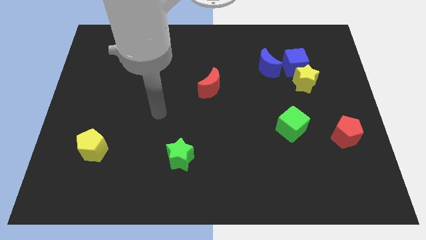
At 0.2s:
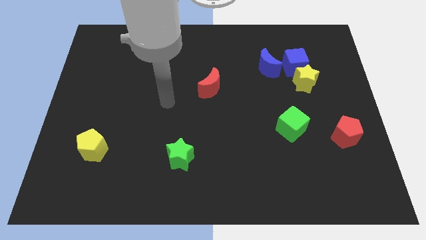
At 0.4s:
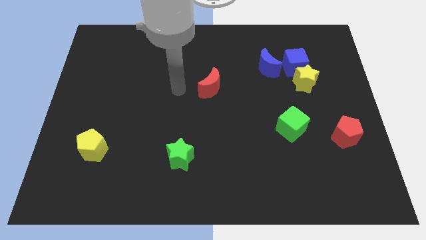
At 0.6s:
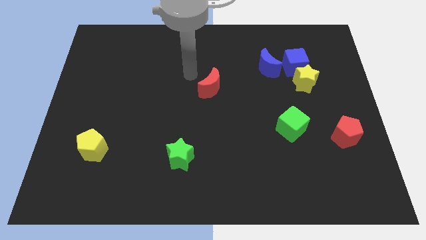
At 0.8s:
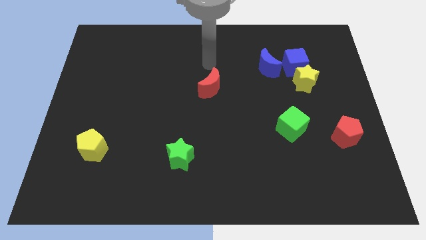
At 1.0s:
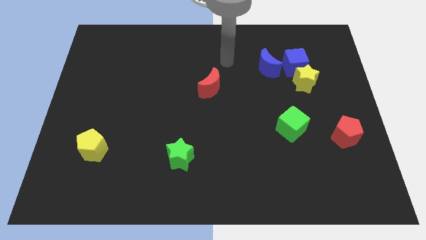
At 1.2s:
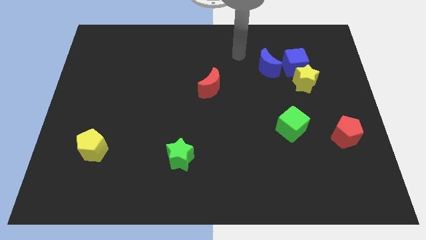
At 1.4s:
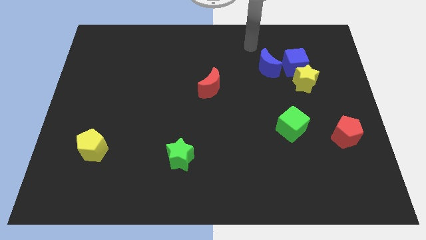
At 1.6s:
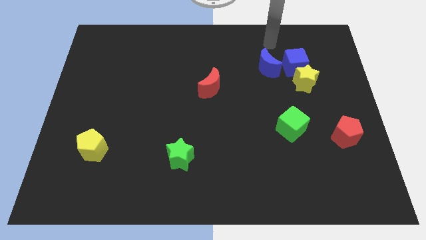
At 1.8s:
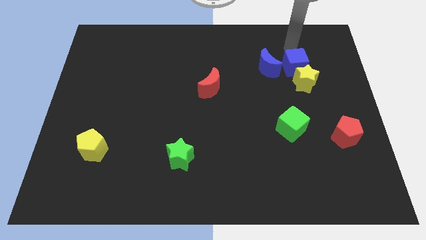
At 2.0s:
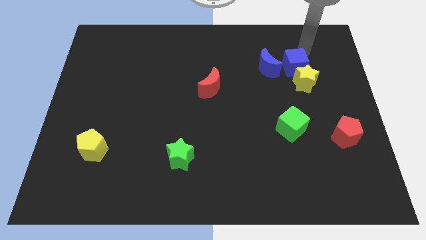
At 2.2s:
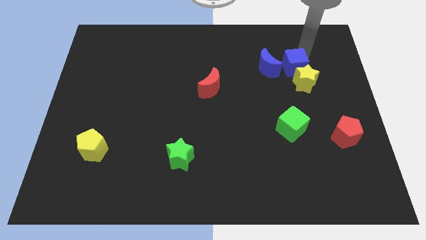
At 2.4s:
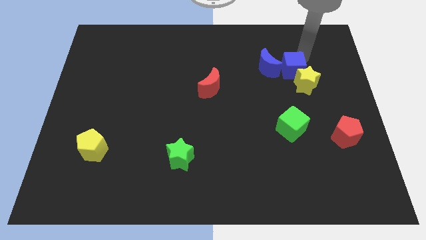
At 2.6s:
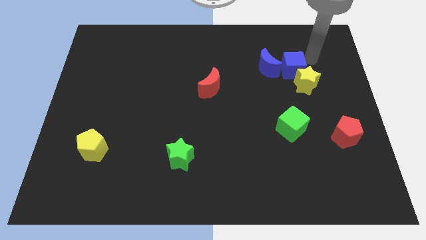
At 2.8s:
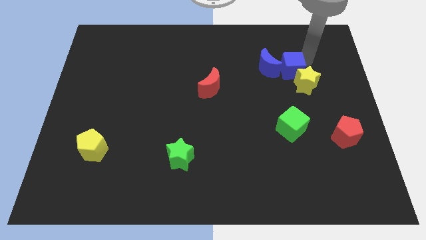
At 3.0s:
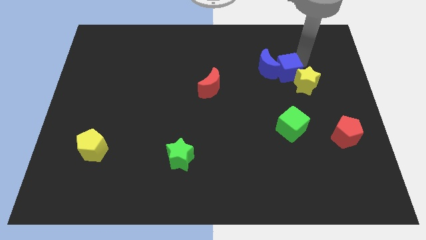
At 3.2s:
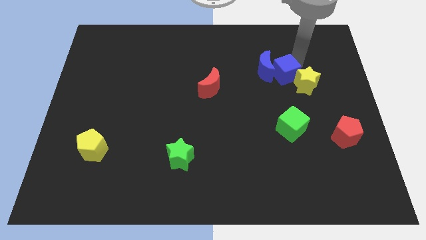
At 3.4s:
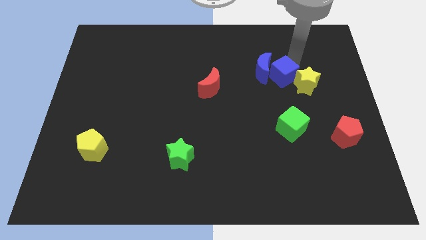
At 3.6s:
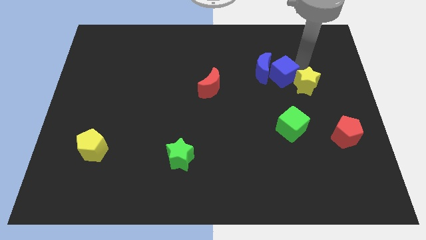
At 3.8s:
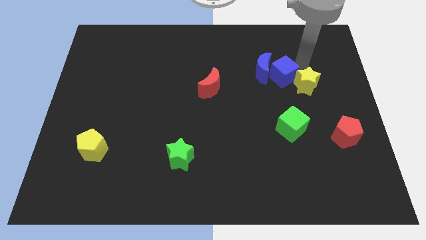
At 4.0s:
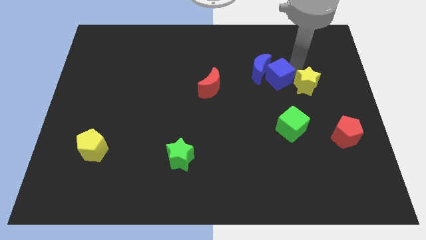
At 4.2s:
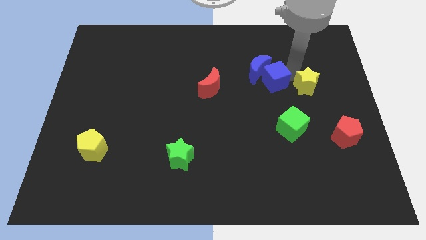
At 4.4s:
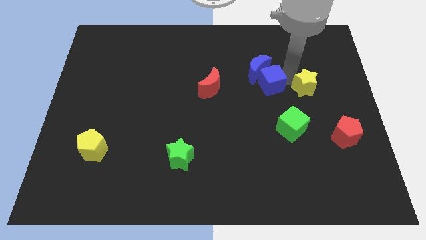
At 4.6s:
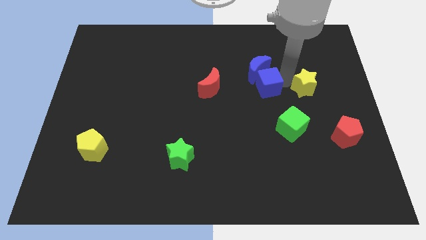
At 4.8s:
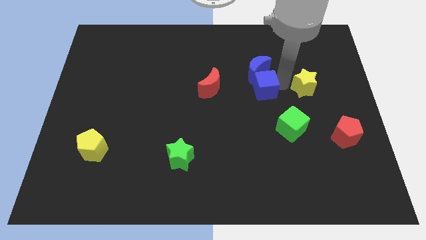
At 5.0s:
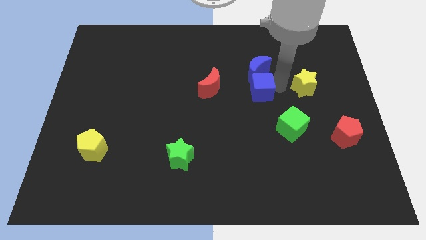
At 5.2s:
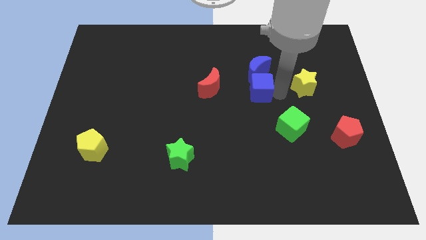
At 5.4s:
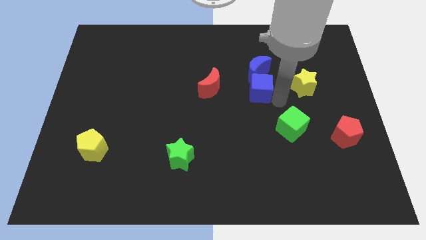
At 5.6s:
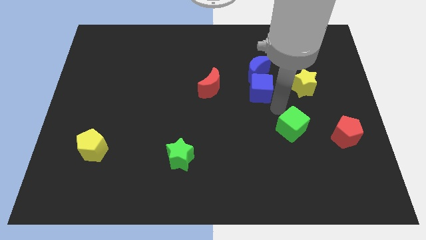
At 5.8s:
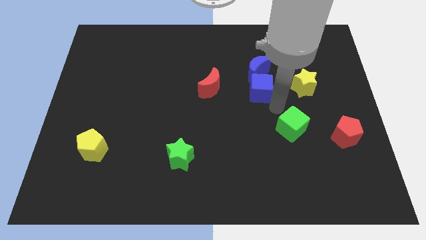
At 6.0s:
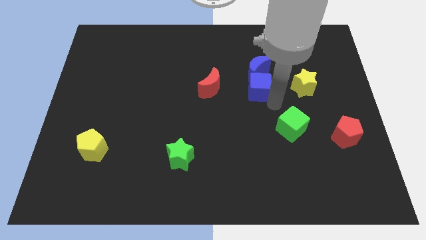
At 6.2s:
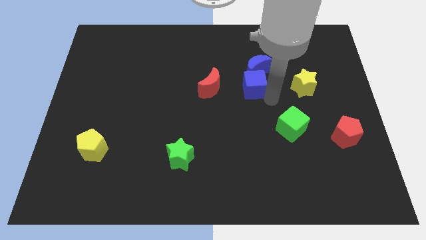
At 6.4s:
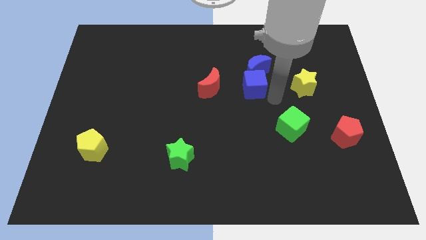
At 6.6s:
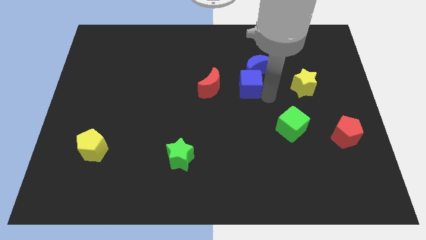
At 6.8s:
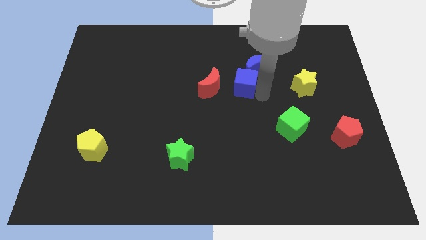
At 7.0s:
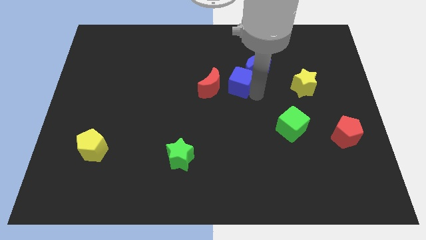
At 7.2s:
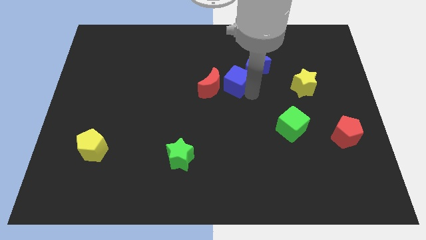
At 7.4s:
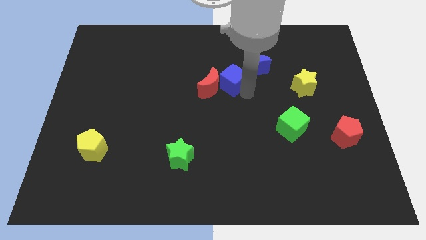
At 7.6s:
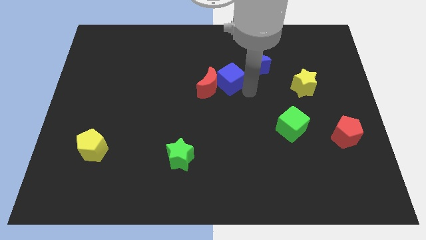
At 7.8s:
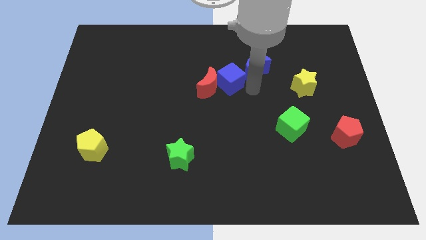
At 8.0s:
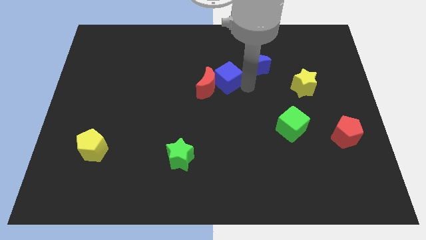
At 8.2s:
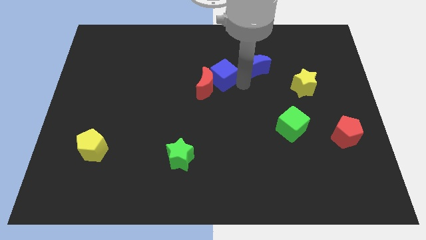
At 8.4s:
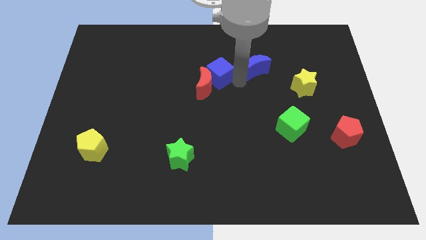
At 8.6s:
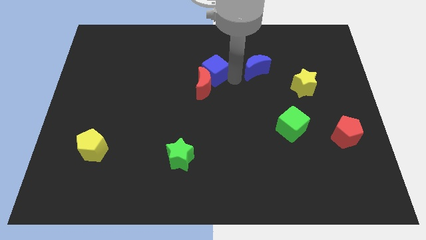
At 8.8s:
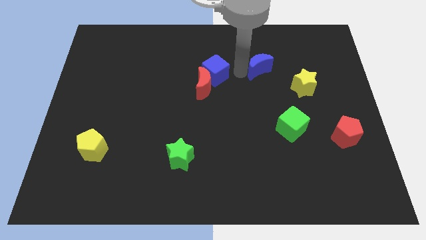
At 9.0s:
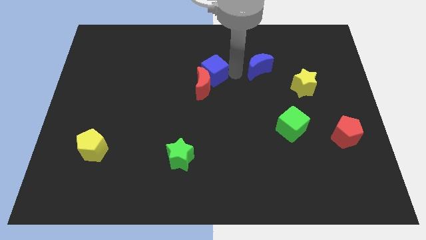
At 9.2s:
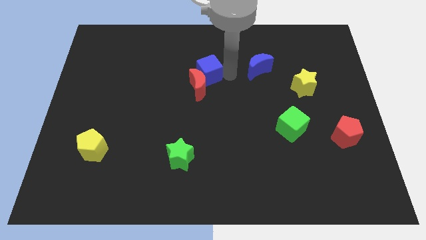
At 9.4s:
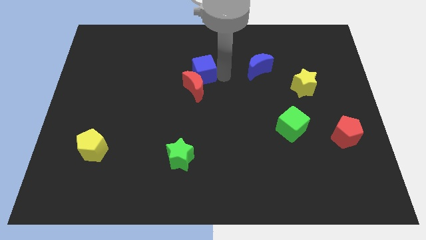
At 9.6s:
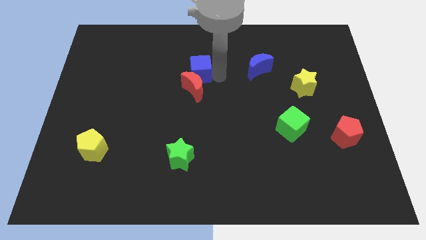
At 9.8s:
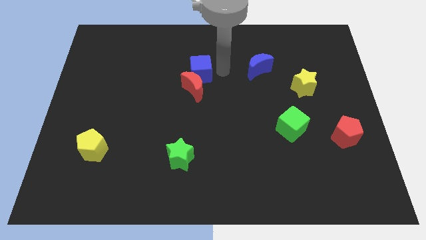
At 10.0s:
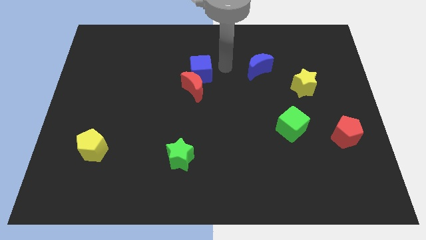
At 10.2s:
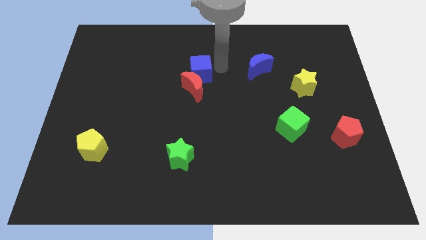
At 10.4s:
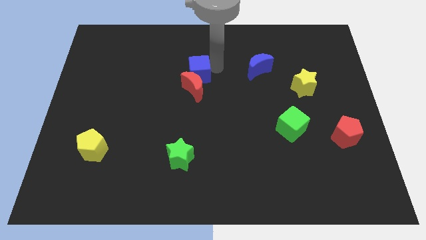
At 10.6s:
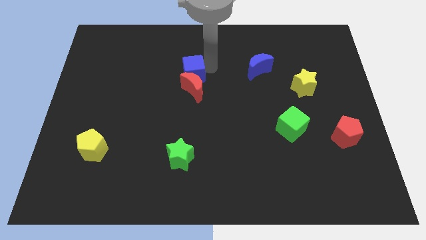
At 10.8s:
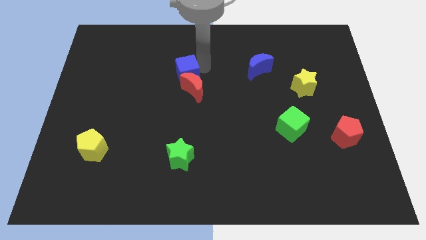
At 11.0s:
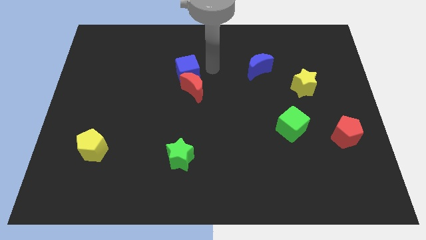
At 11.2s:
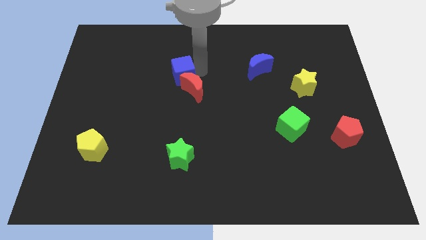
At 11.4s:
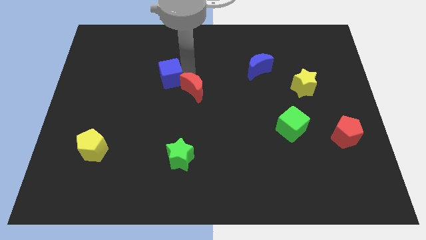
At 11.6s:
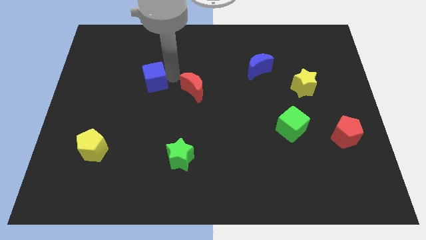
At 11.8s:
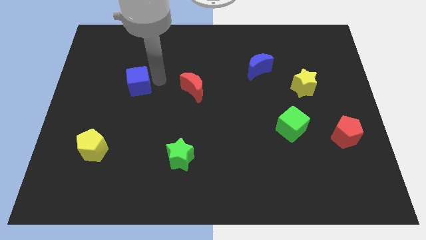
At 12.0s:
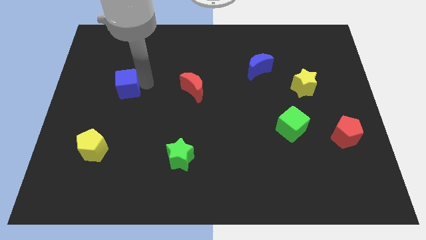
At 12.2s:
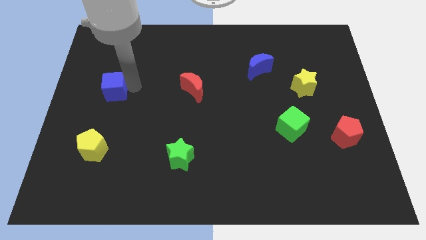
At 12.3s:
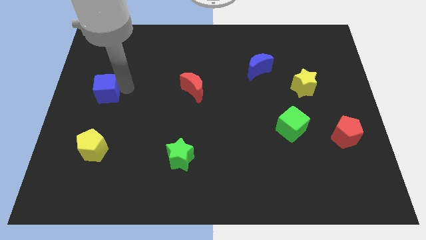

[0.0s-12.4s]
move the blue cube to the left side

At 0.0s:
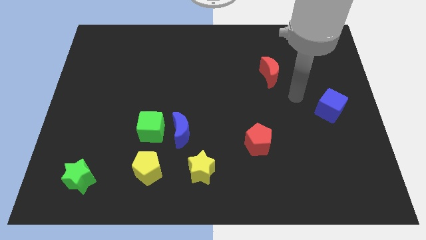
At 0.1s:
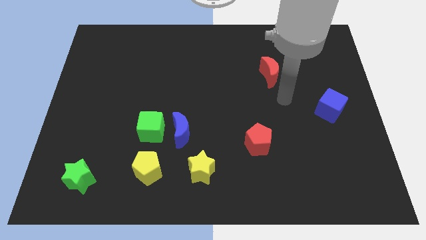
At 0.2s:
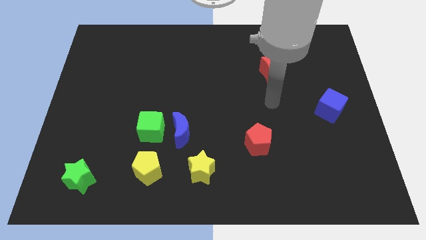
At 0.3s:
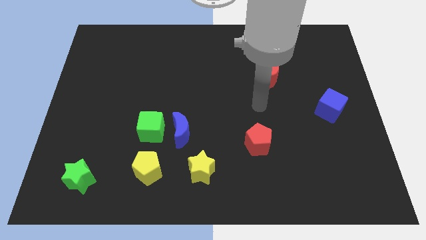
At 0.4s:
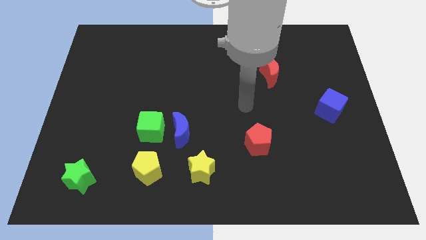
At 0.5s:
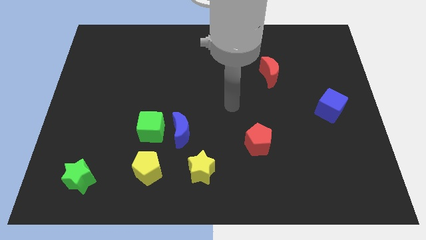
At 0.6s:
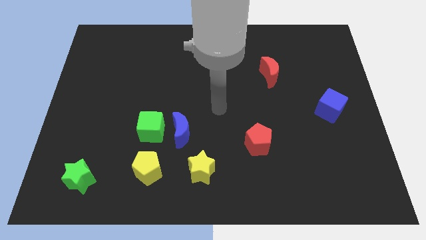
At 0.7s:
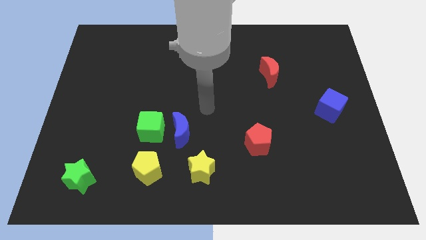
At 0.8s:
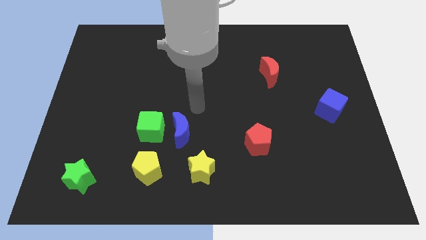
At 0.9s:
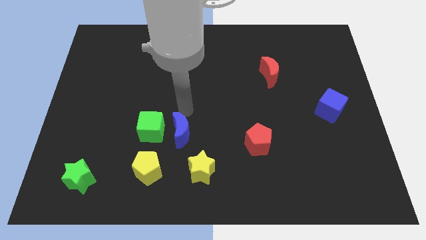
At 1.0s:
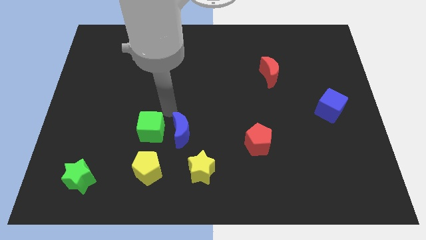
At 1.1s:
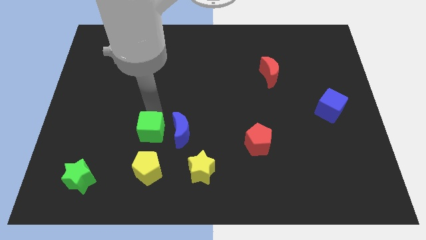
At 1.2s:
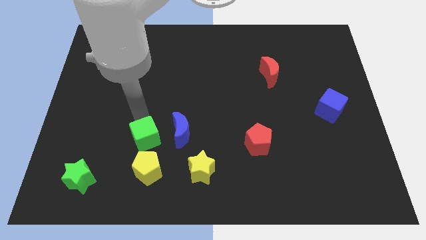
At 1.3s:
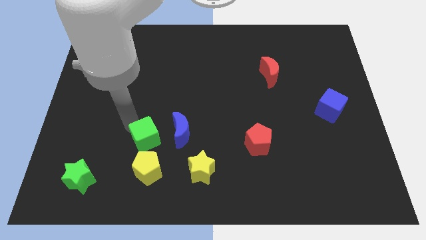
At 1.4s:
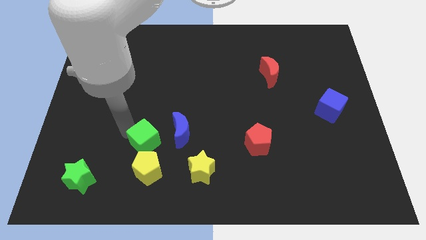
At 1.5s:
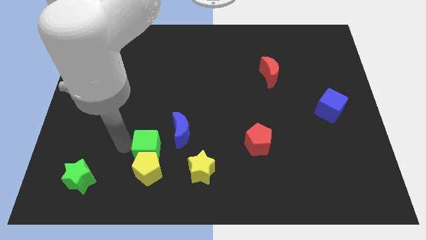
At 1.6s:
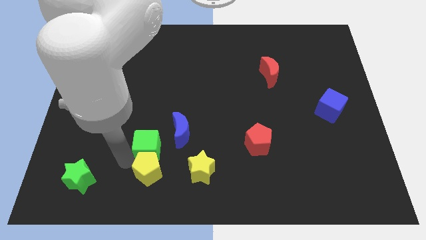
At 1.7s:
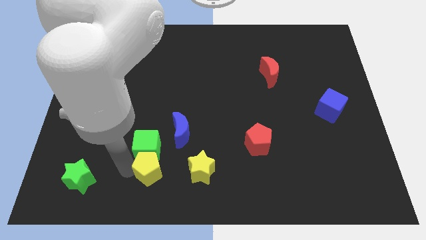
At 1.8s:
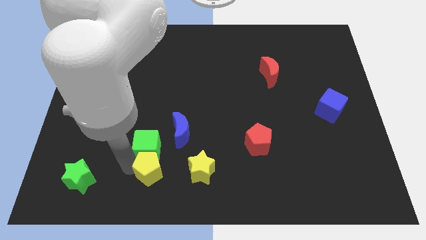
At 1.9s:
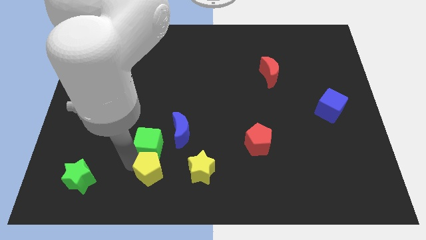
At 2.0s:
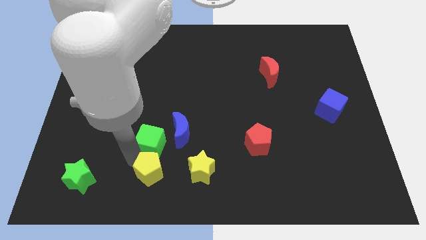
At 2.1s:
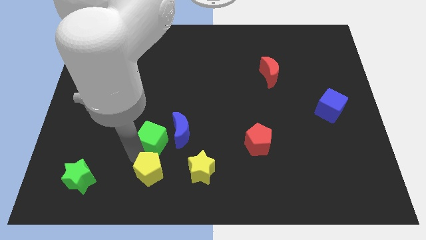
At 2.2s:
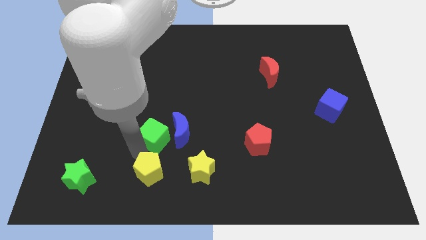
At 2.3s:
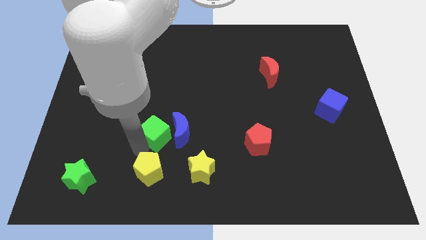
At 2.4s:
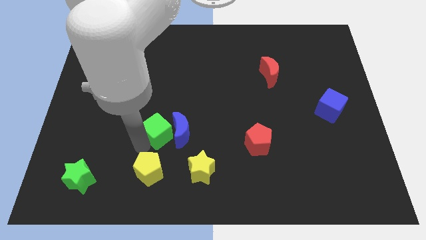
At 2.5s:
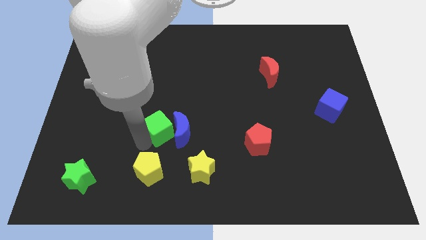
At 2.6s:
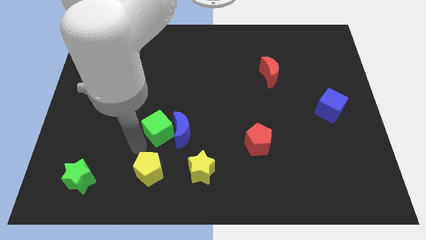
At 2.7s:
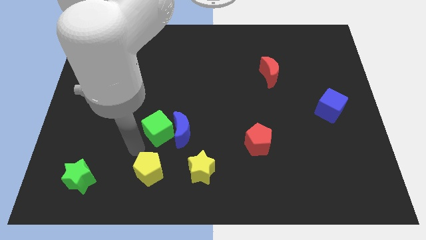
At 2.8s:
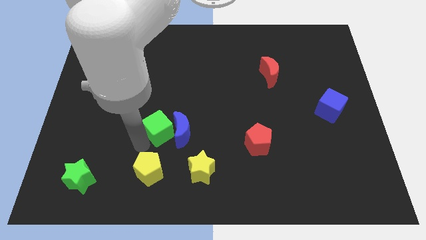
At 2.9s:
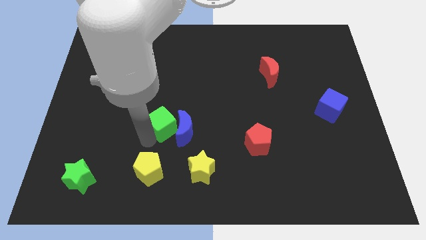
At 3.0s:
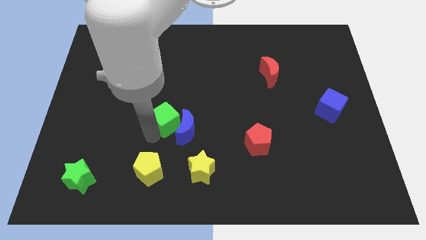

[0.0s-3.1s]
put the green cube to the center of the board
